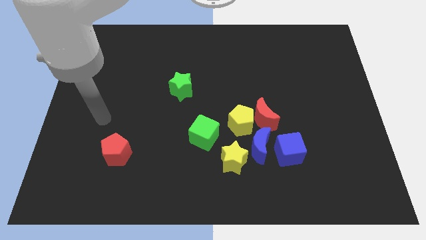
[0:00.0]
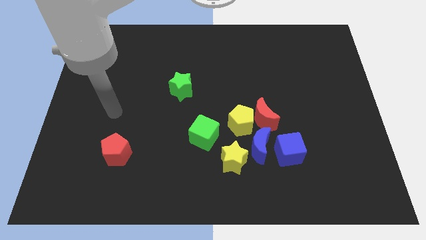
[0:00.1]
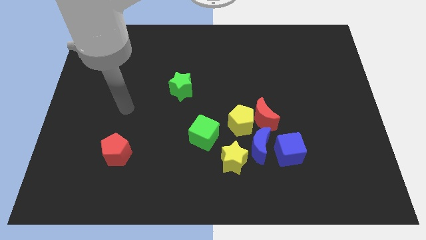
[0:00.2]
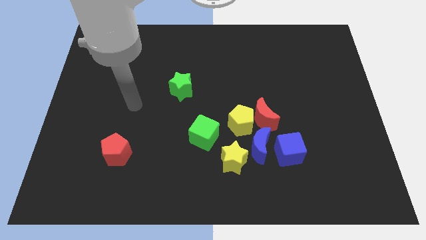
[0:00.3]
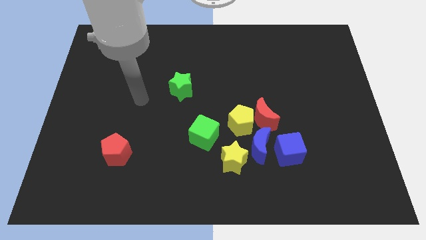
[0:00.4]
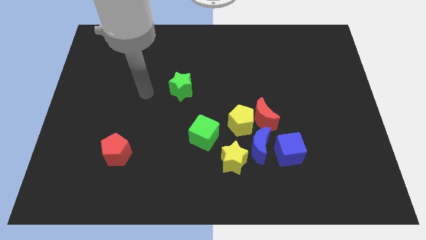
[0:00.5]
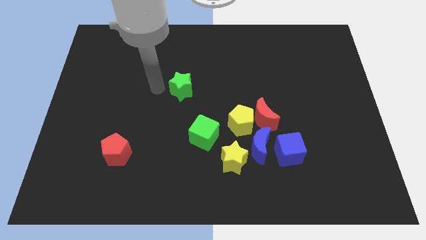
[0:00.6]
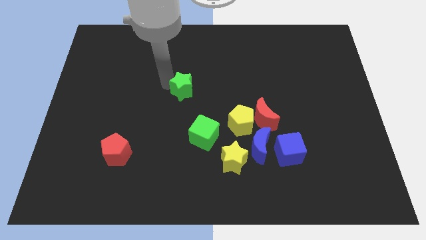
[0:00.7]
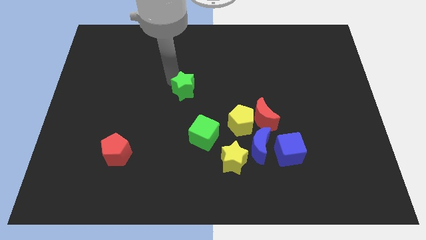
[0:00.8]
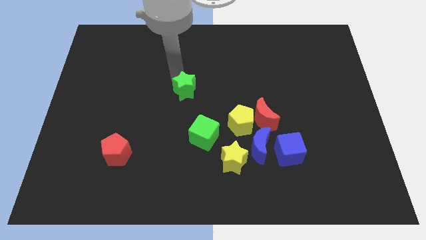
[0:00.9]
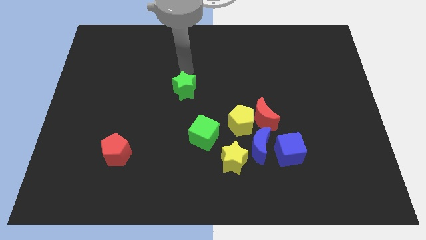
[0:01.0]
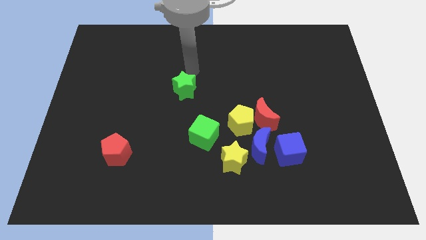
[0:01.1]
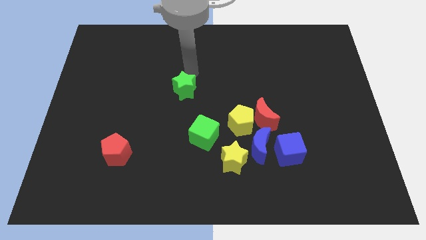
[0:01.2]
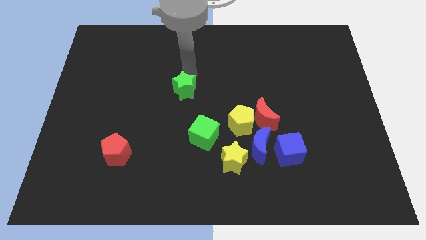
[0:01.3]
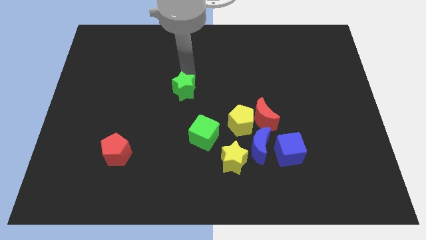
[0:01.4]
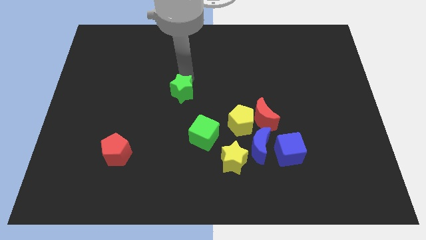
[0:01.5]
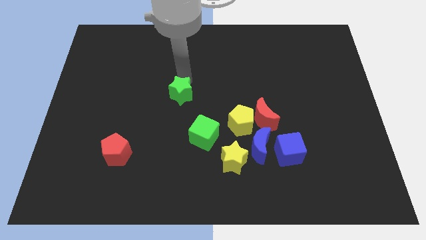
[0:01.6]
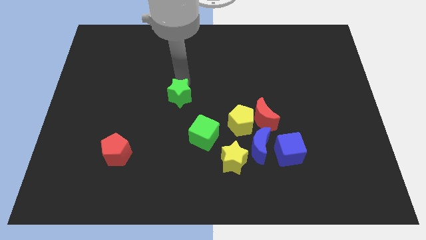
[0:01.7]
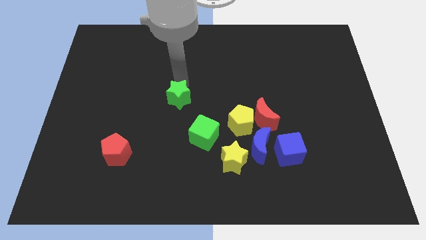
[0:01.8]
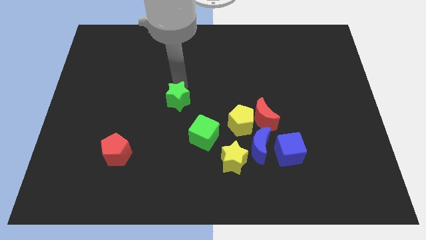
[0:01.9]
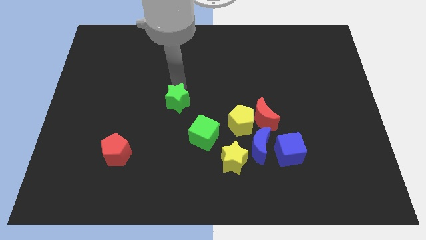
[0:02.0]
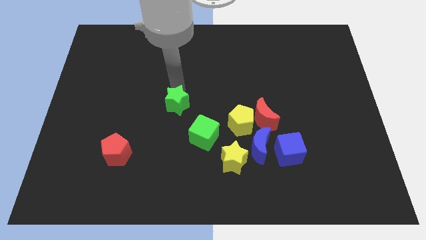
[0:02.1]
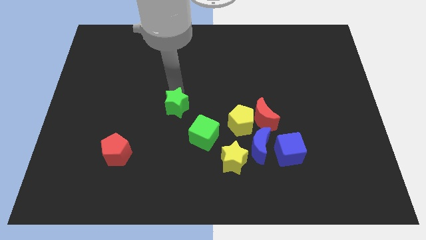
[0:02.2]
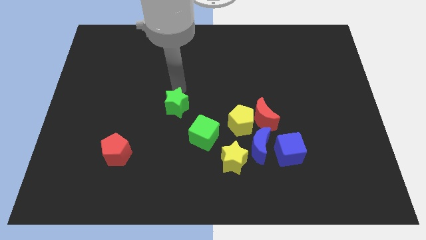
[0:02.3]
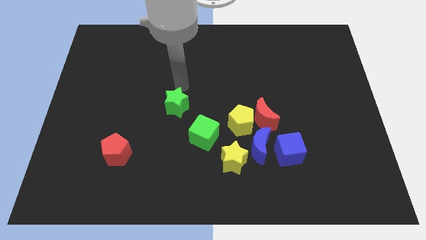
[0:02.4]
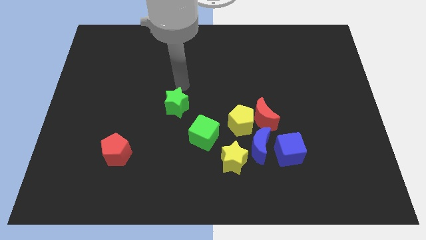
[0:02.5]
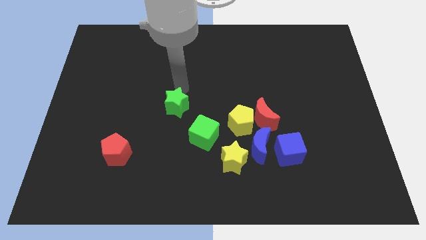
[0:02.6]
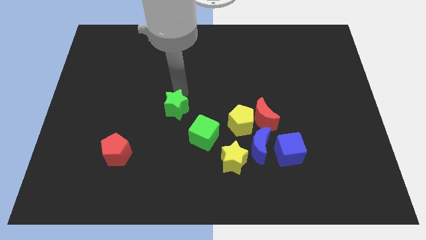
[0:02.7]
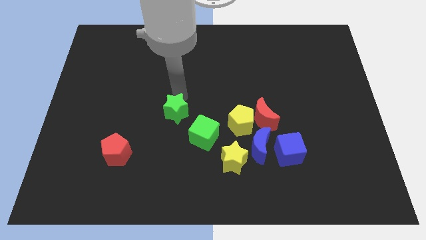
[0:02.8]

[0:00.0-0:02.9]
move the green star a little down

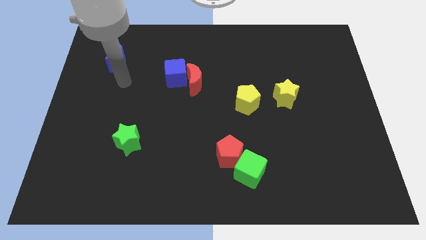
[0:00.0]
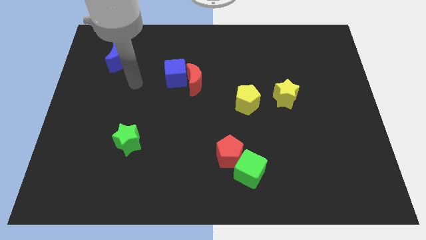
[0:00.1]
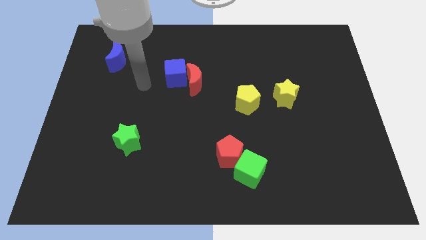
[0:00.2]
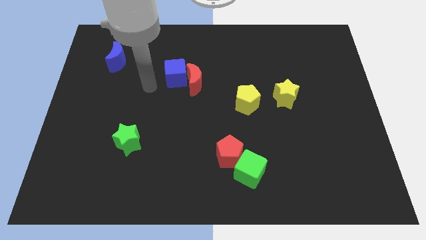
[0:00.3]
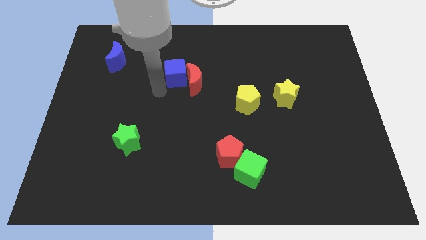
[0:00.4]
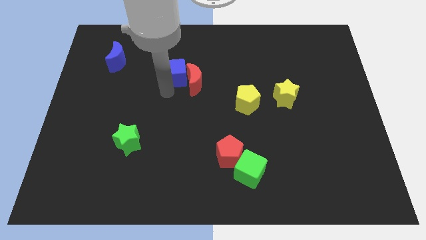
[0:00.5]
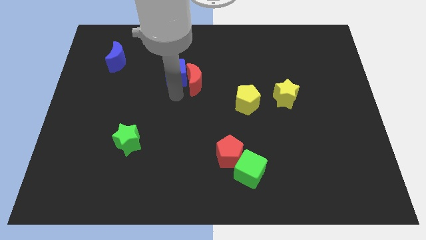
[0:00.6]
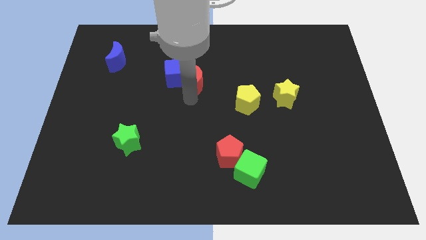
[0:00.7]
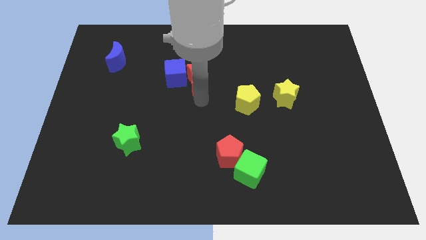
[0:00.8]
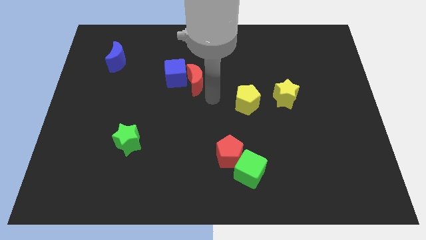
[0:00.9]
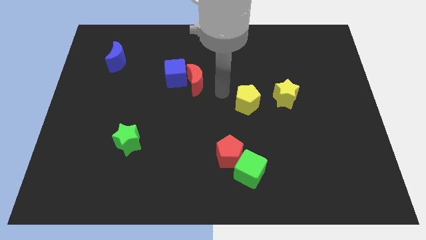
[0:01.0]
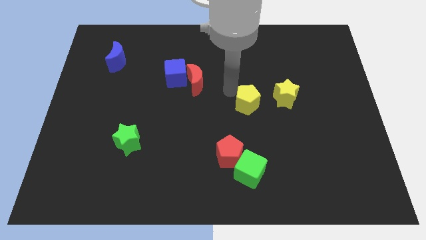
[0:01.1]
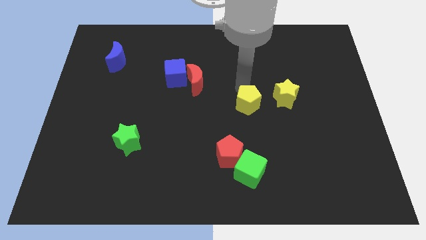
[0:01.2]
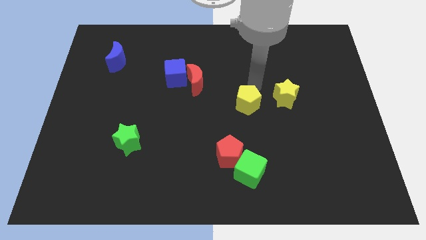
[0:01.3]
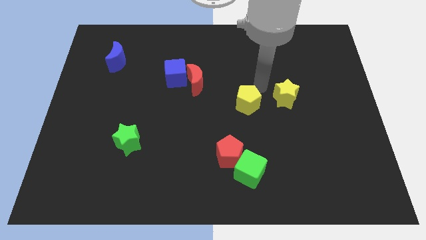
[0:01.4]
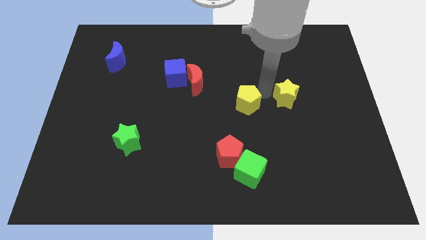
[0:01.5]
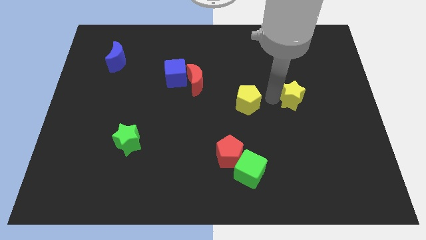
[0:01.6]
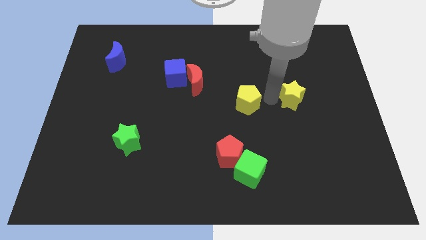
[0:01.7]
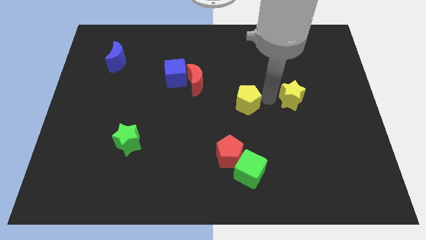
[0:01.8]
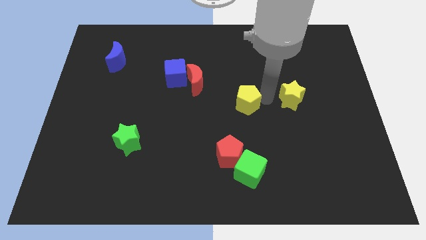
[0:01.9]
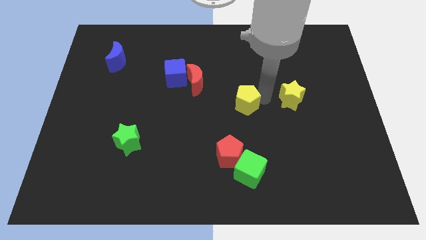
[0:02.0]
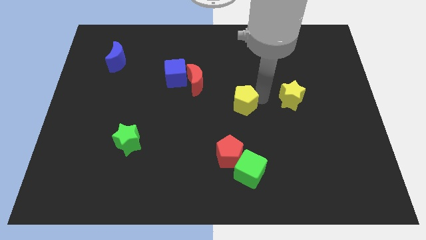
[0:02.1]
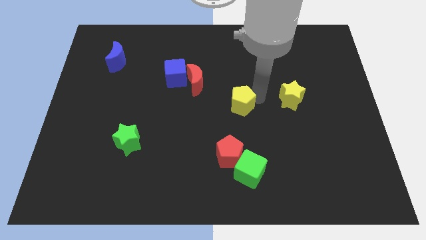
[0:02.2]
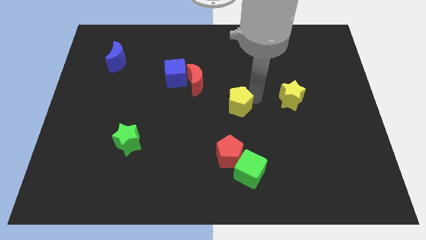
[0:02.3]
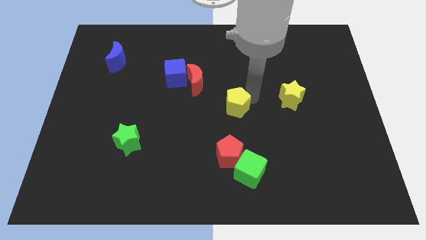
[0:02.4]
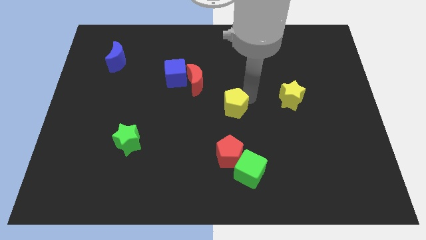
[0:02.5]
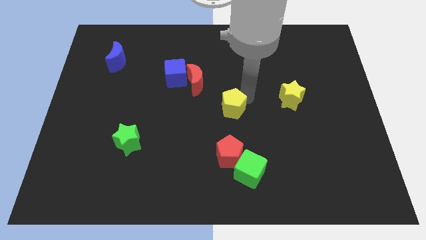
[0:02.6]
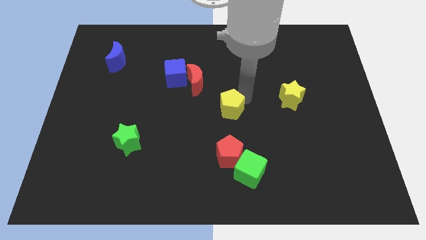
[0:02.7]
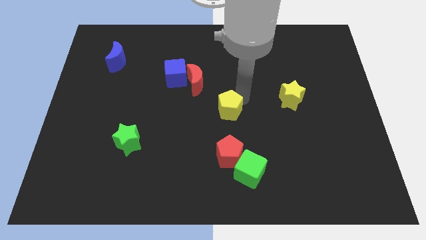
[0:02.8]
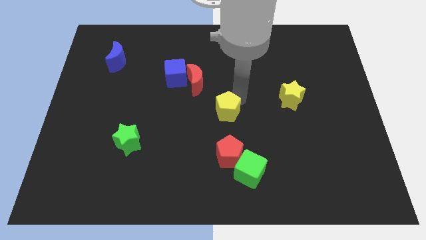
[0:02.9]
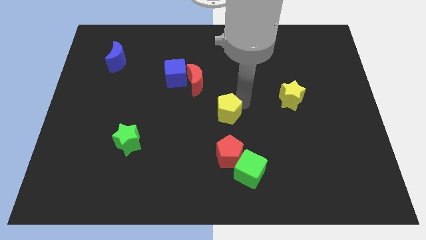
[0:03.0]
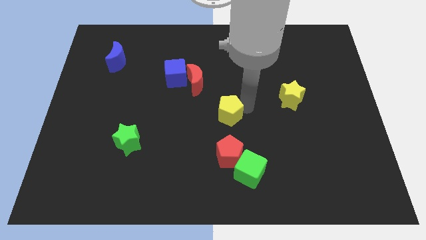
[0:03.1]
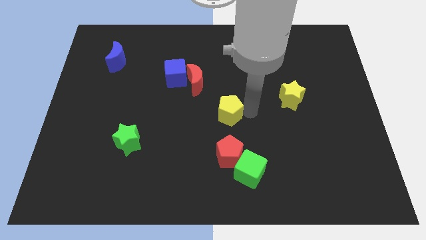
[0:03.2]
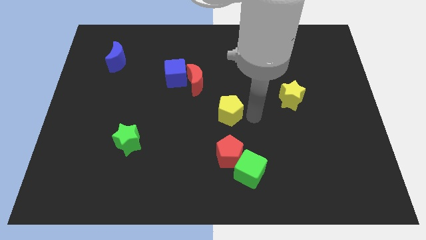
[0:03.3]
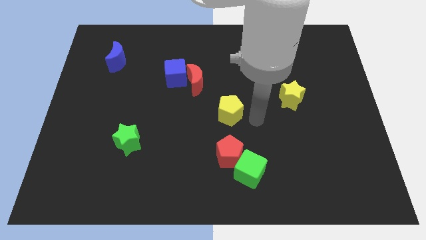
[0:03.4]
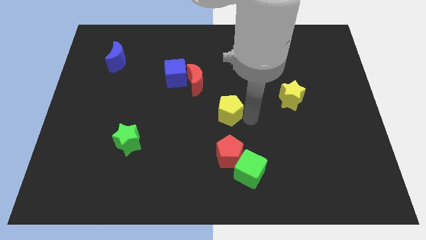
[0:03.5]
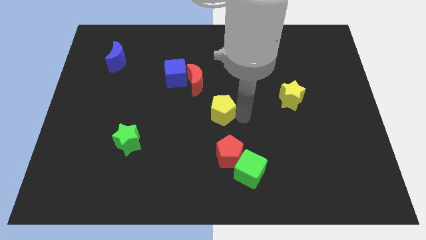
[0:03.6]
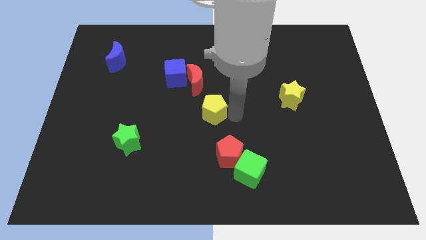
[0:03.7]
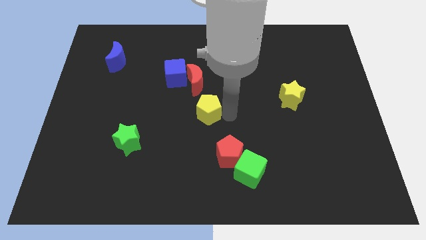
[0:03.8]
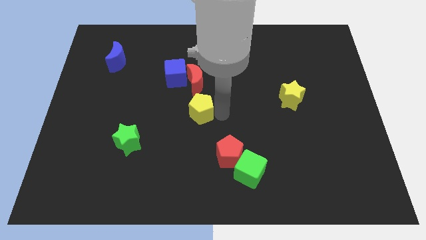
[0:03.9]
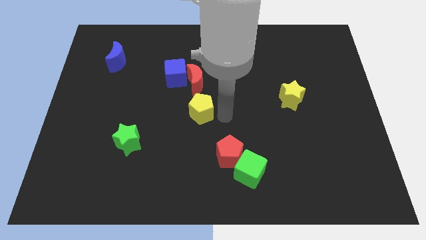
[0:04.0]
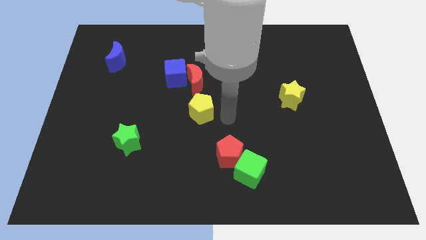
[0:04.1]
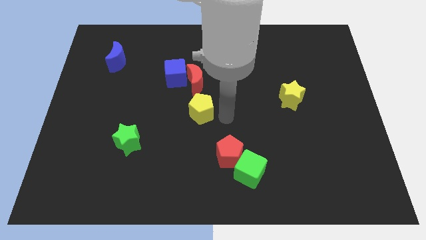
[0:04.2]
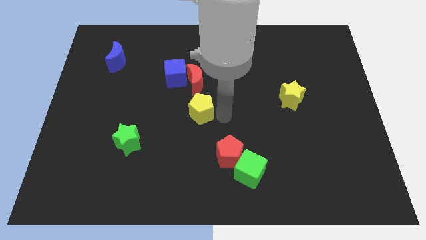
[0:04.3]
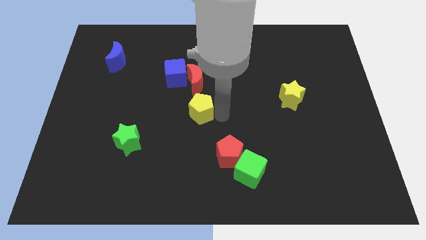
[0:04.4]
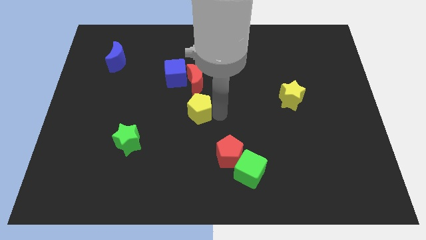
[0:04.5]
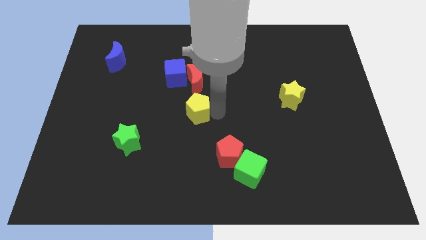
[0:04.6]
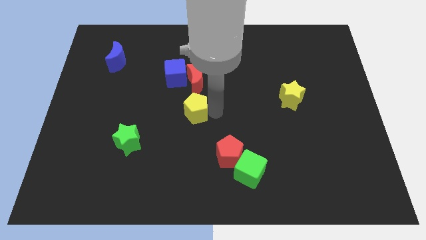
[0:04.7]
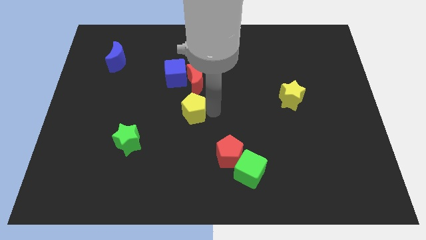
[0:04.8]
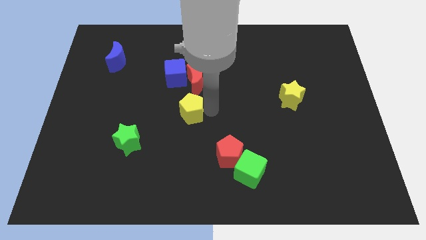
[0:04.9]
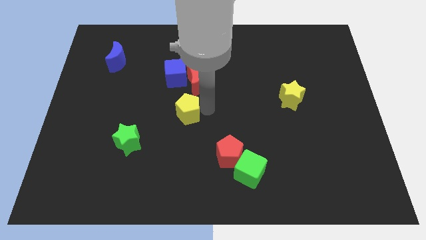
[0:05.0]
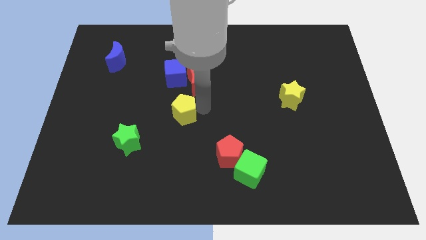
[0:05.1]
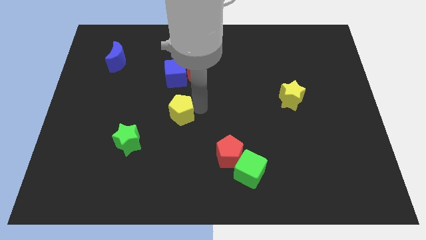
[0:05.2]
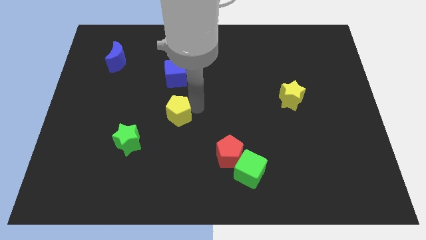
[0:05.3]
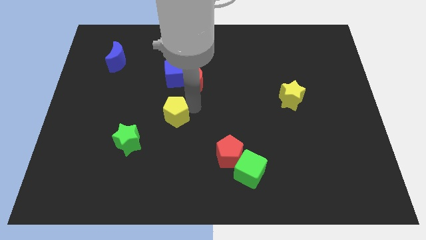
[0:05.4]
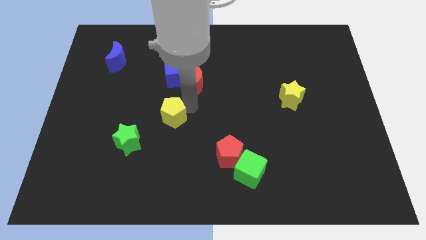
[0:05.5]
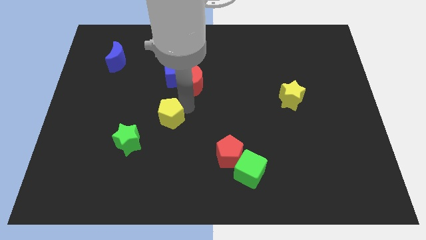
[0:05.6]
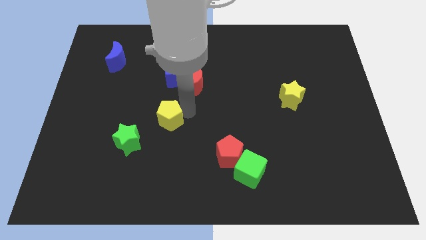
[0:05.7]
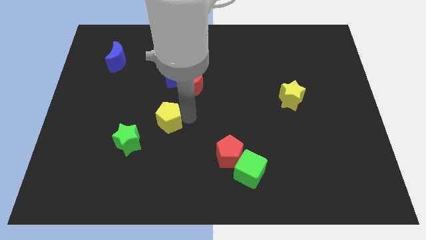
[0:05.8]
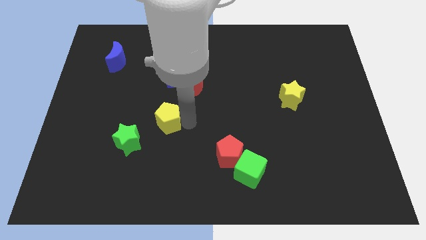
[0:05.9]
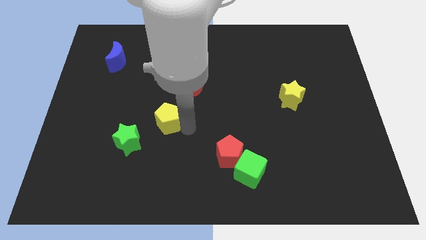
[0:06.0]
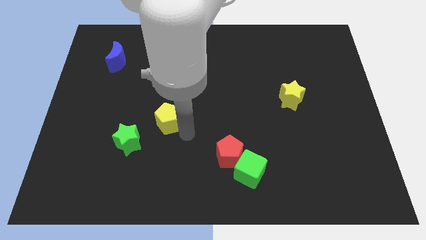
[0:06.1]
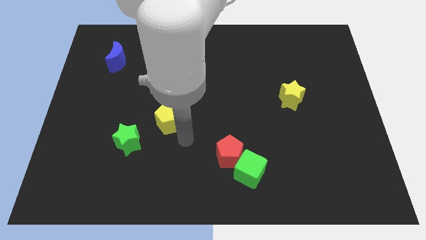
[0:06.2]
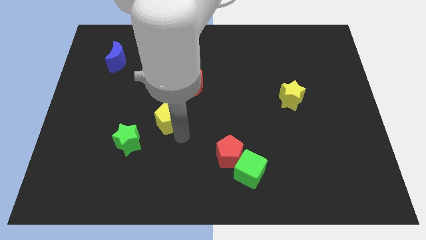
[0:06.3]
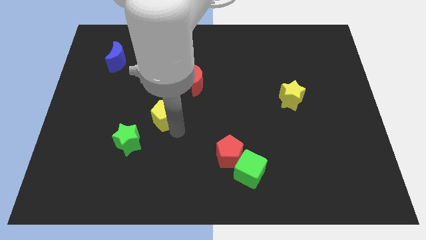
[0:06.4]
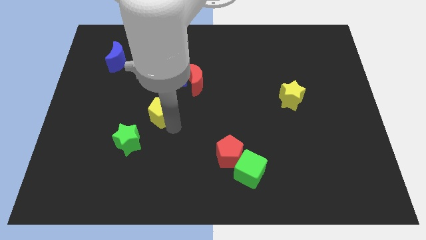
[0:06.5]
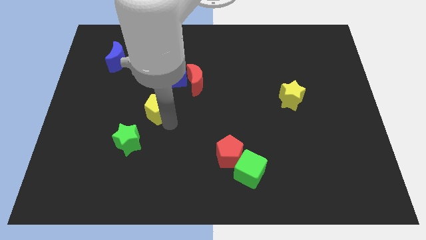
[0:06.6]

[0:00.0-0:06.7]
slide the yellow pentagon left
